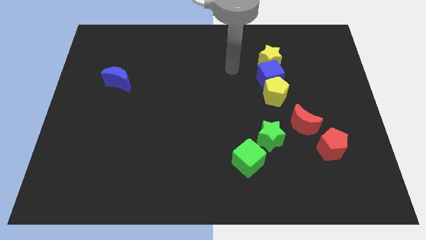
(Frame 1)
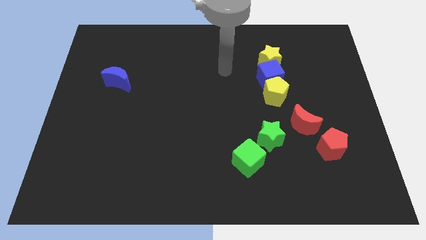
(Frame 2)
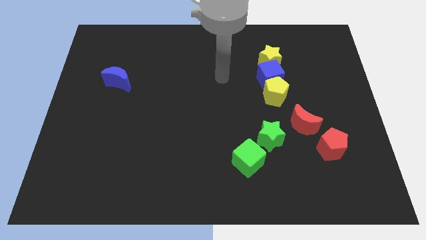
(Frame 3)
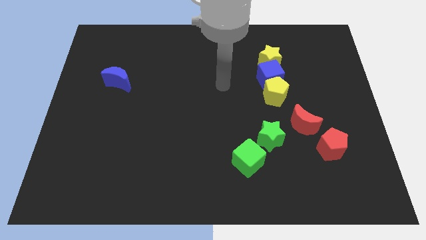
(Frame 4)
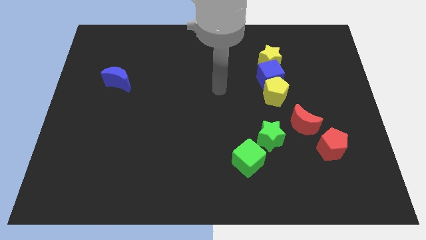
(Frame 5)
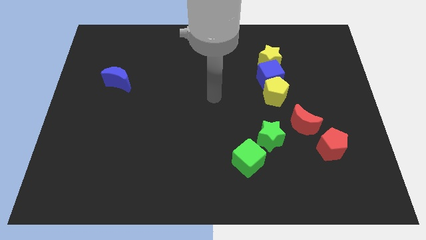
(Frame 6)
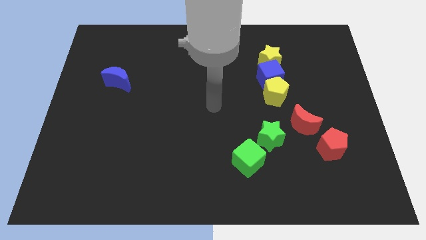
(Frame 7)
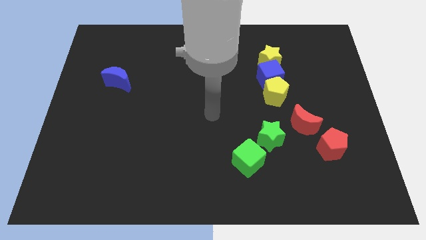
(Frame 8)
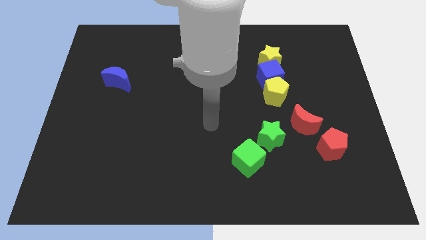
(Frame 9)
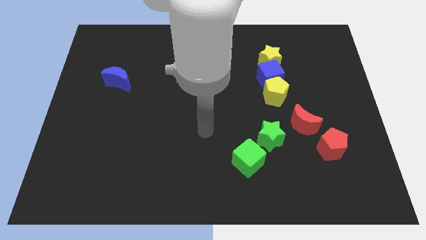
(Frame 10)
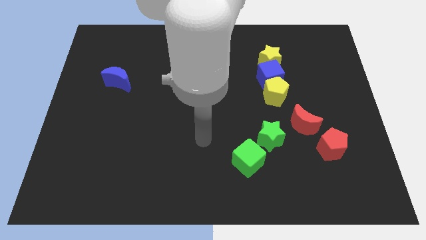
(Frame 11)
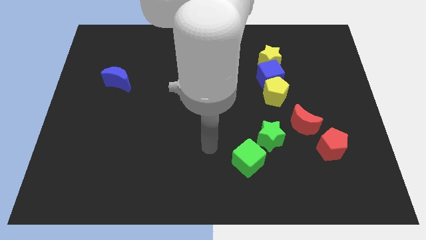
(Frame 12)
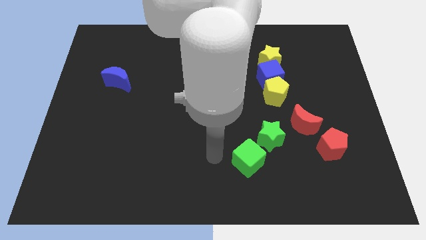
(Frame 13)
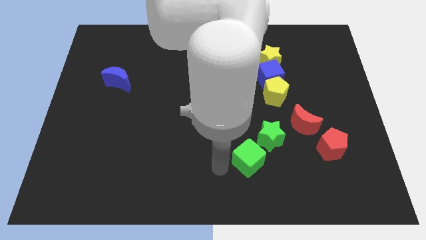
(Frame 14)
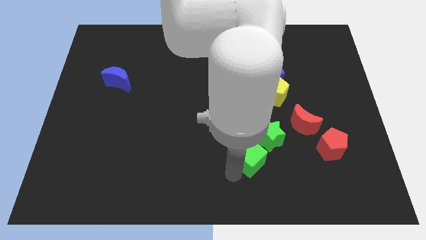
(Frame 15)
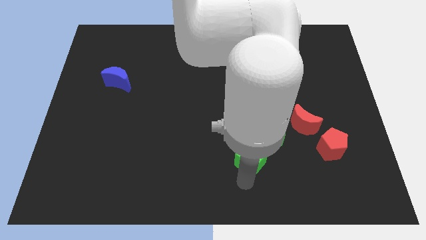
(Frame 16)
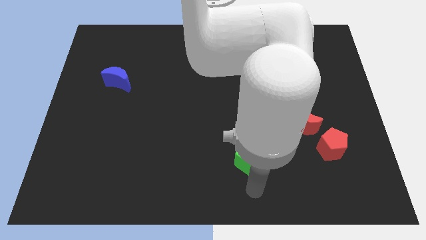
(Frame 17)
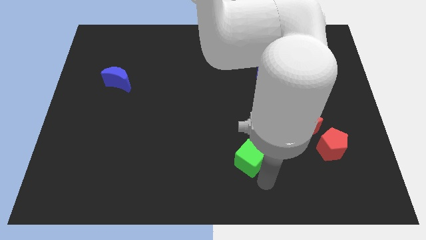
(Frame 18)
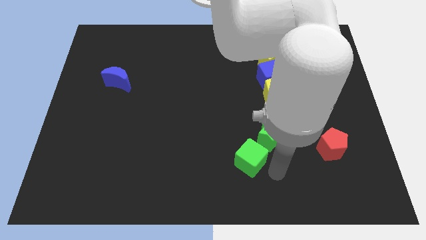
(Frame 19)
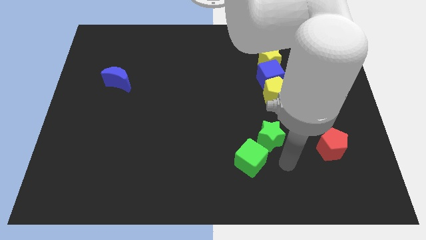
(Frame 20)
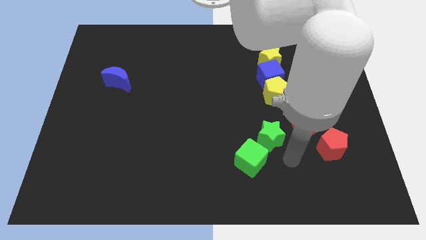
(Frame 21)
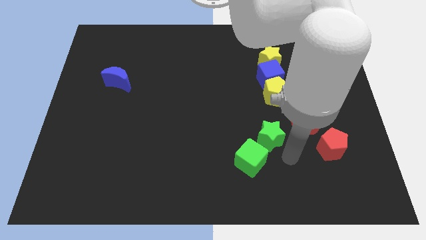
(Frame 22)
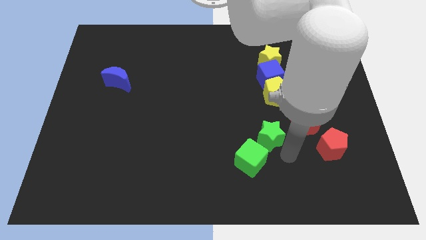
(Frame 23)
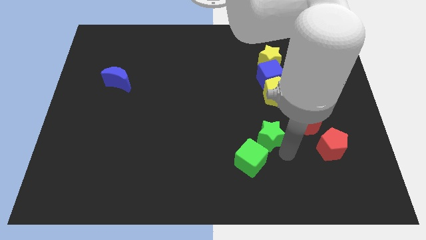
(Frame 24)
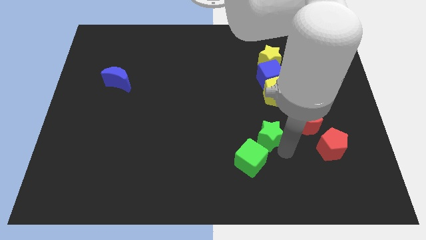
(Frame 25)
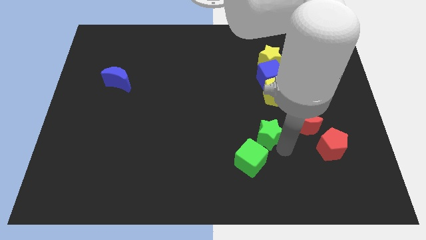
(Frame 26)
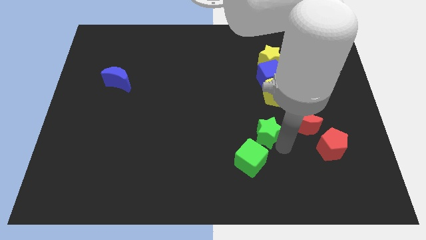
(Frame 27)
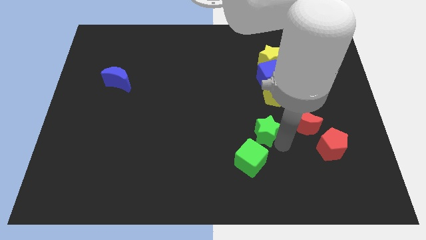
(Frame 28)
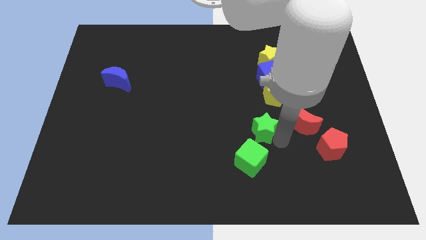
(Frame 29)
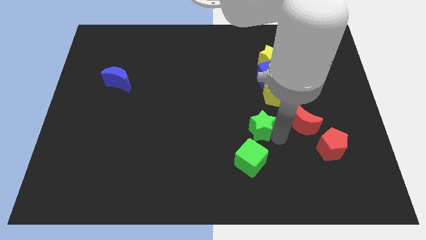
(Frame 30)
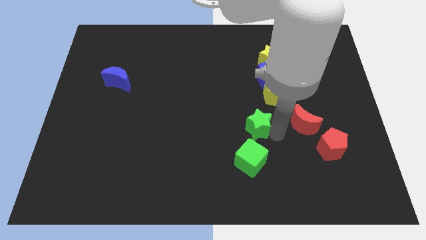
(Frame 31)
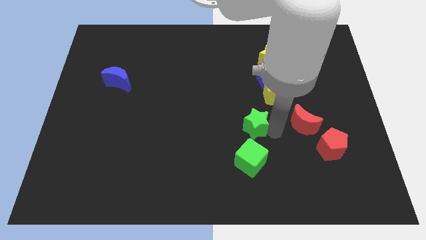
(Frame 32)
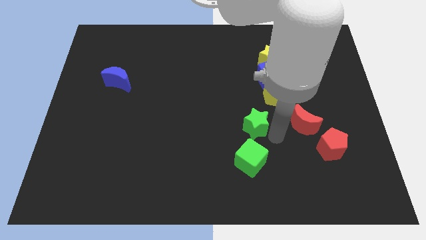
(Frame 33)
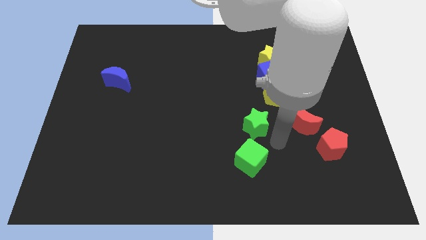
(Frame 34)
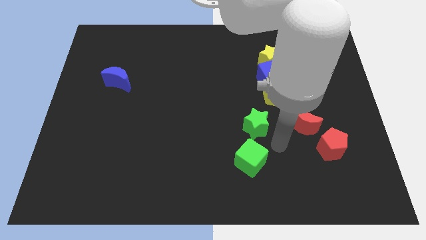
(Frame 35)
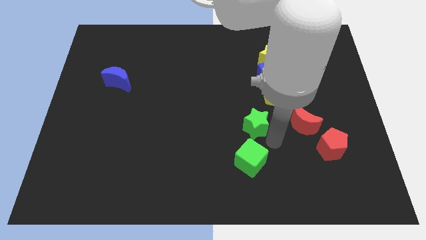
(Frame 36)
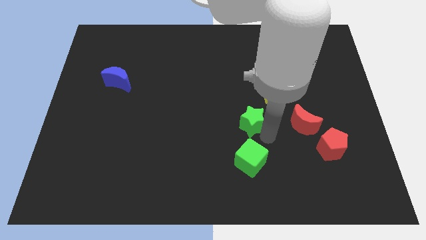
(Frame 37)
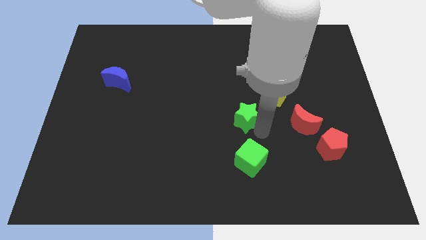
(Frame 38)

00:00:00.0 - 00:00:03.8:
slide the green star upwards and to the left somewhat

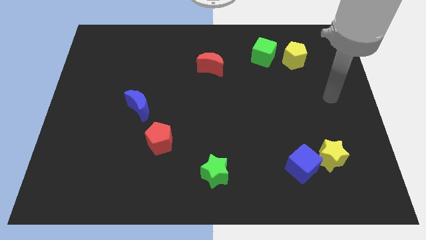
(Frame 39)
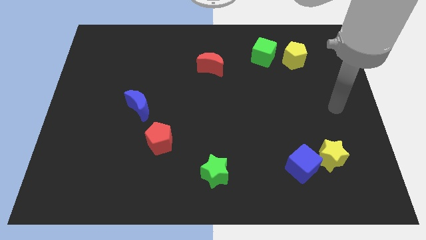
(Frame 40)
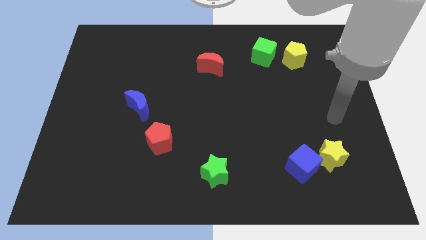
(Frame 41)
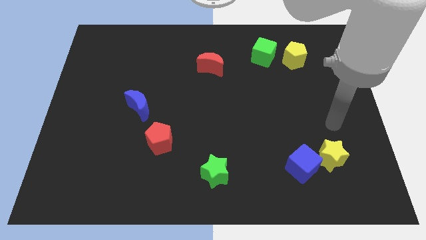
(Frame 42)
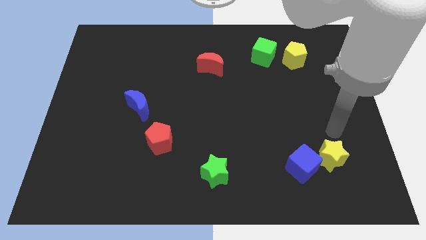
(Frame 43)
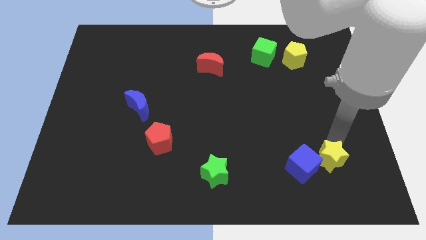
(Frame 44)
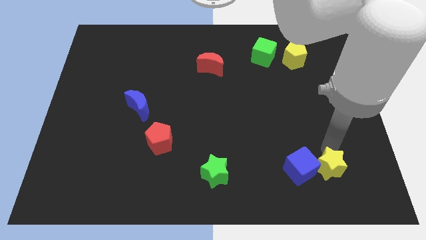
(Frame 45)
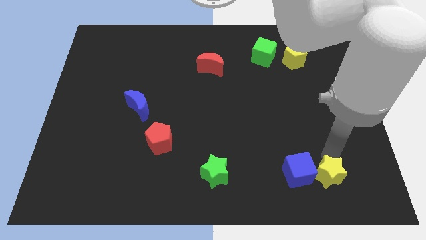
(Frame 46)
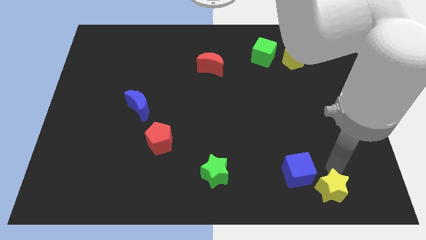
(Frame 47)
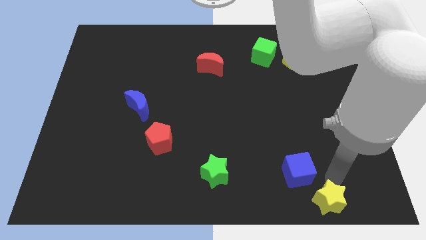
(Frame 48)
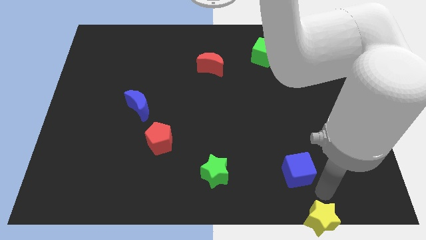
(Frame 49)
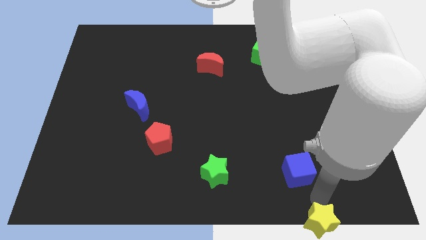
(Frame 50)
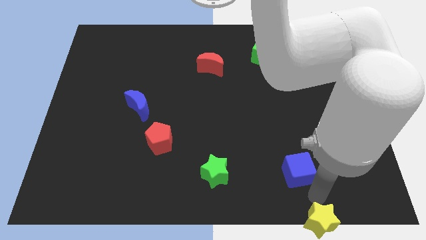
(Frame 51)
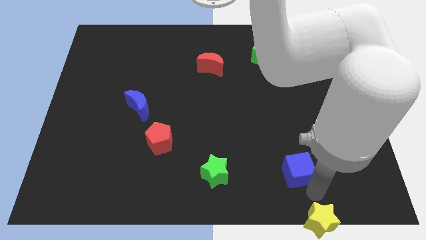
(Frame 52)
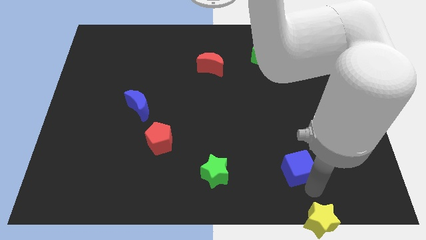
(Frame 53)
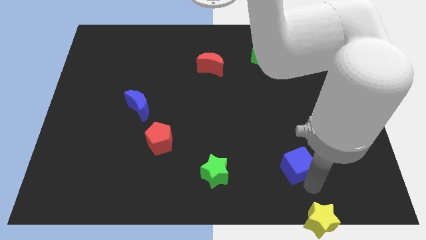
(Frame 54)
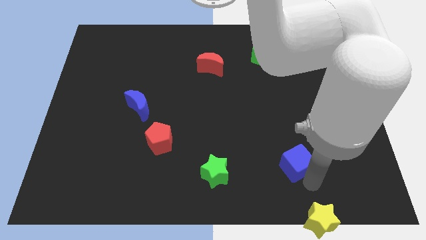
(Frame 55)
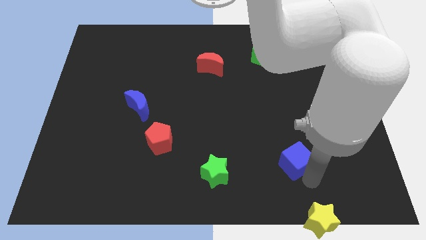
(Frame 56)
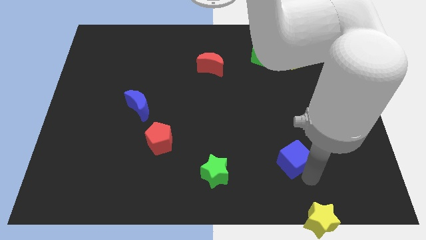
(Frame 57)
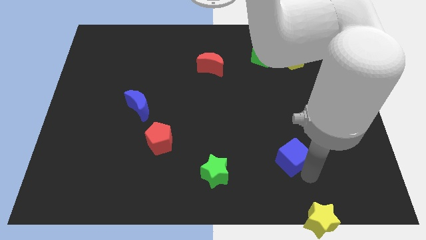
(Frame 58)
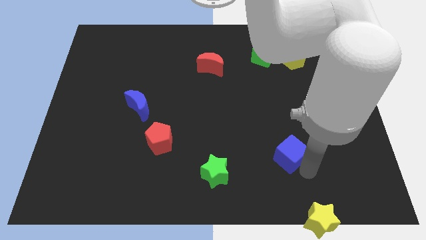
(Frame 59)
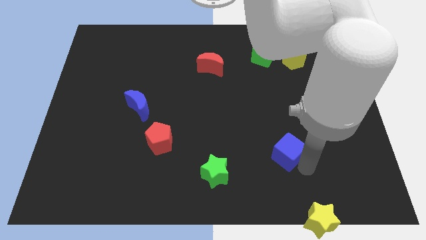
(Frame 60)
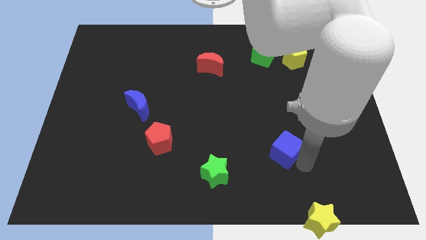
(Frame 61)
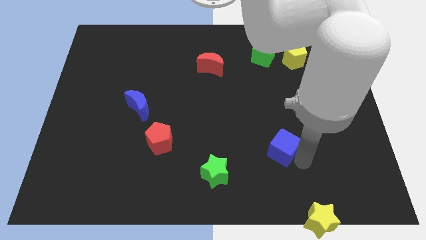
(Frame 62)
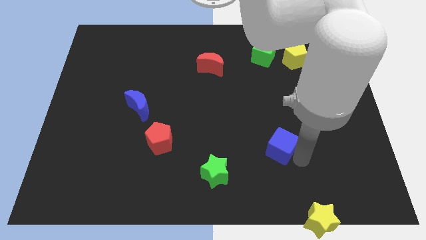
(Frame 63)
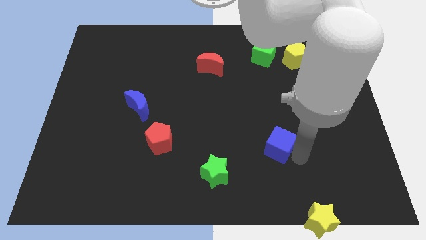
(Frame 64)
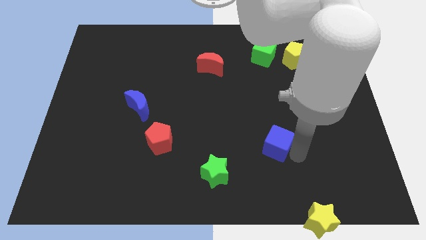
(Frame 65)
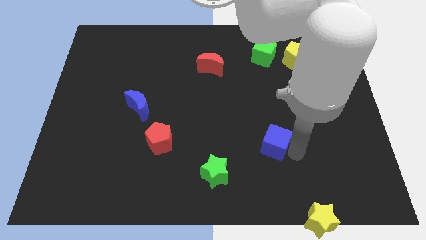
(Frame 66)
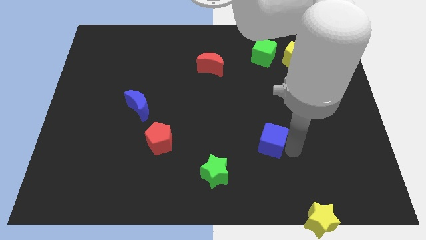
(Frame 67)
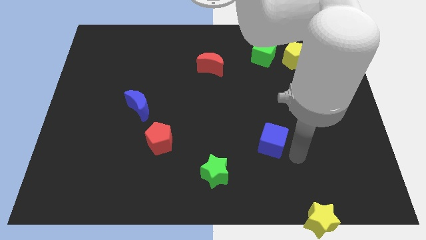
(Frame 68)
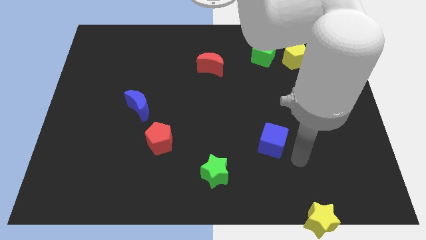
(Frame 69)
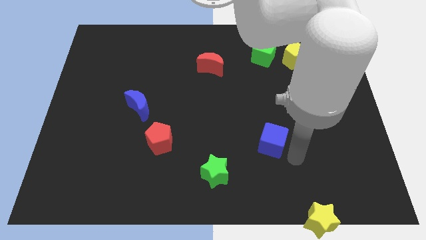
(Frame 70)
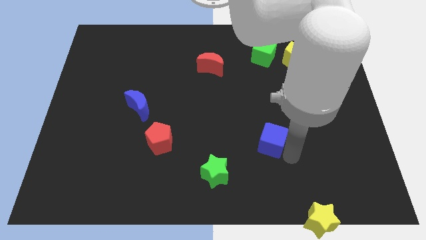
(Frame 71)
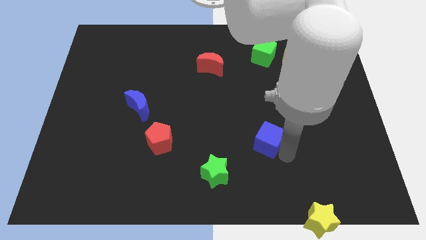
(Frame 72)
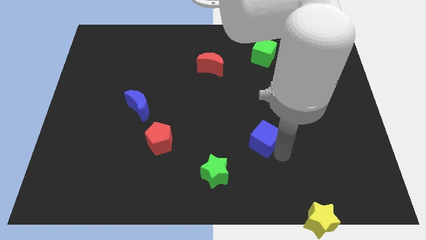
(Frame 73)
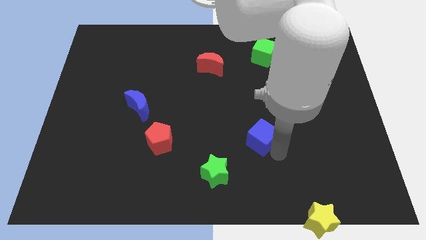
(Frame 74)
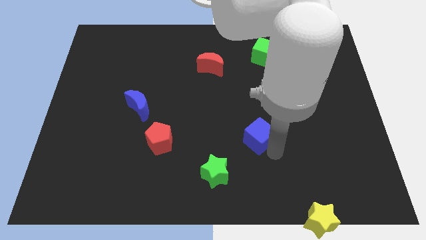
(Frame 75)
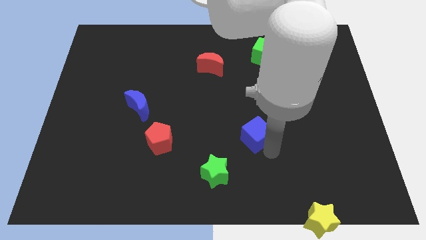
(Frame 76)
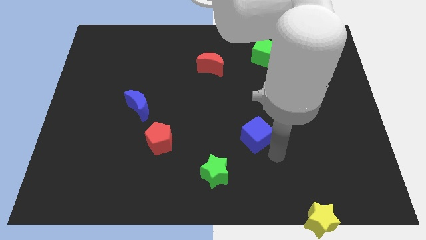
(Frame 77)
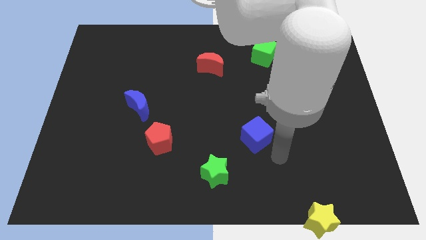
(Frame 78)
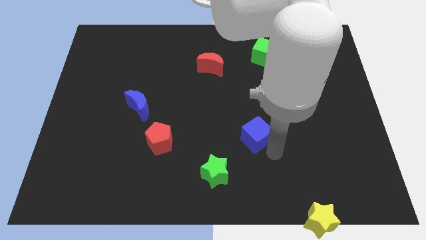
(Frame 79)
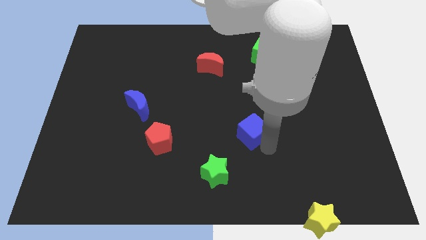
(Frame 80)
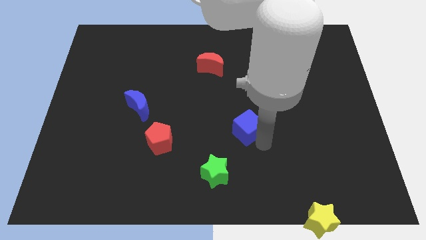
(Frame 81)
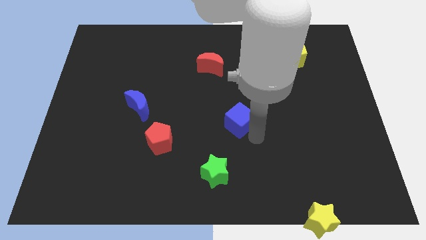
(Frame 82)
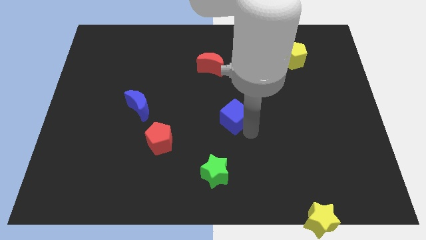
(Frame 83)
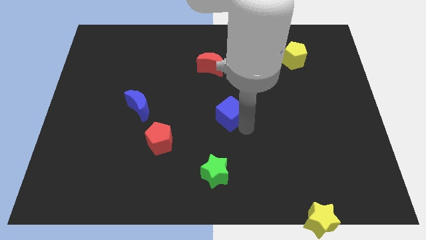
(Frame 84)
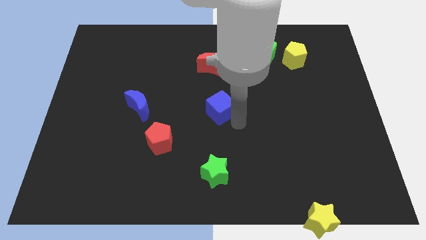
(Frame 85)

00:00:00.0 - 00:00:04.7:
slide the blue cube diagonally up and to the left
